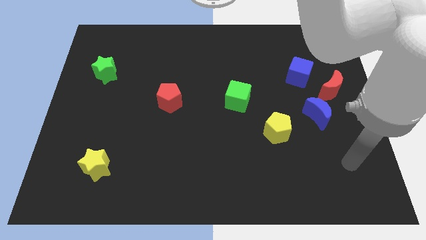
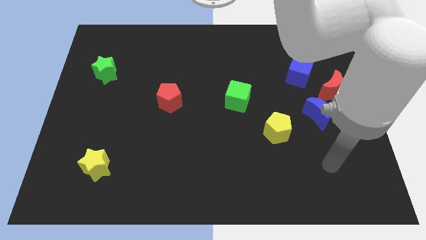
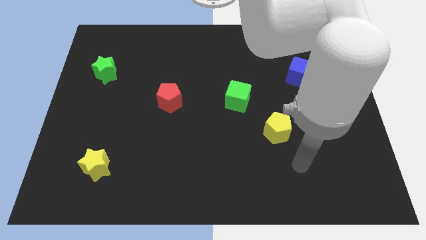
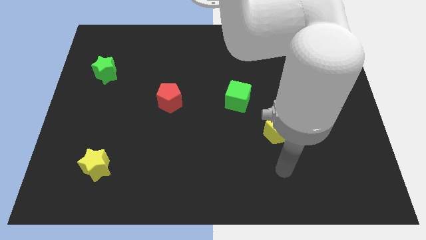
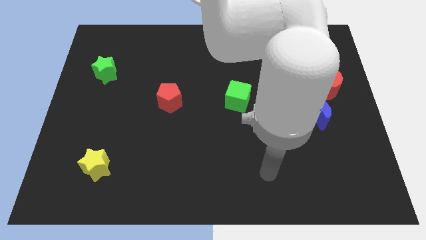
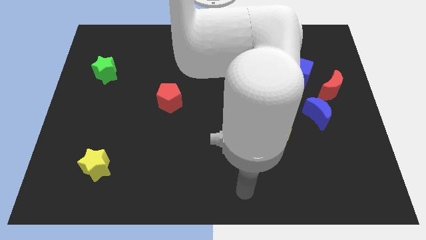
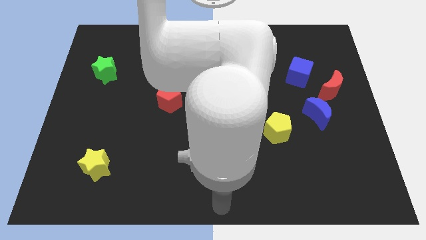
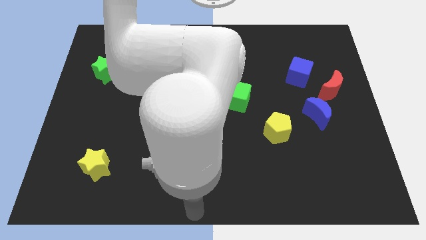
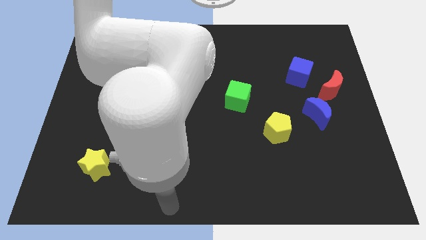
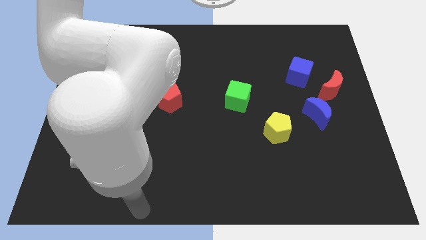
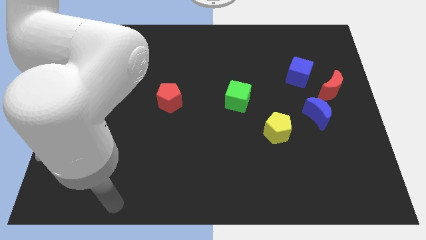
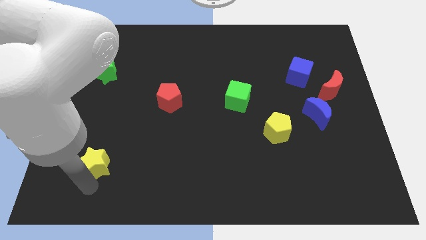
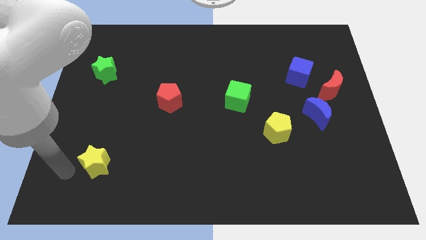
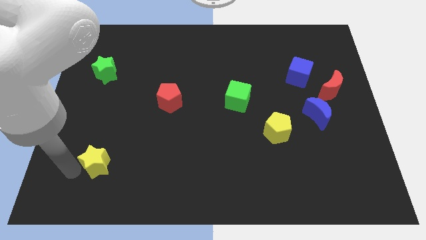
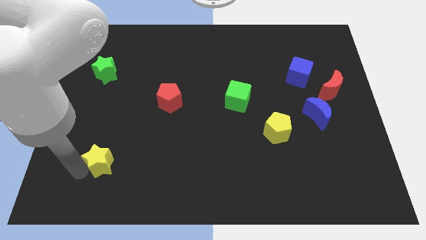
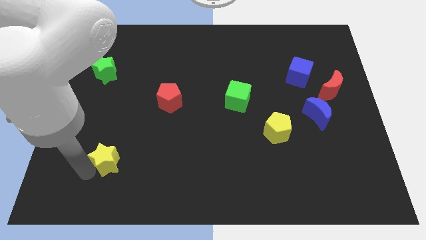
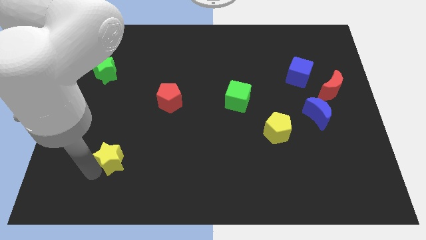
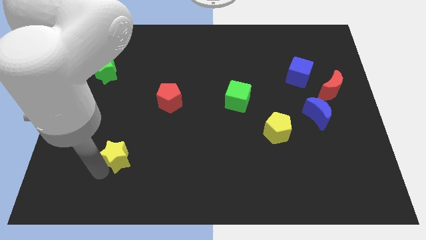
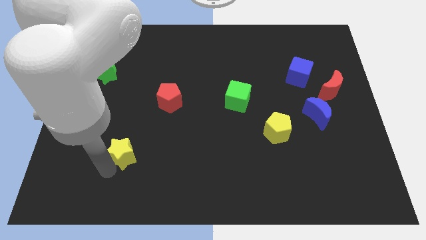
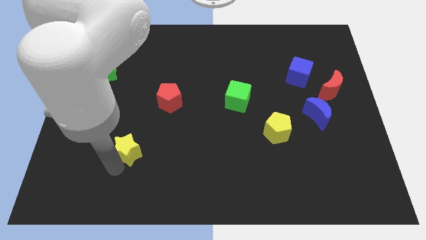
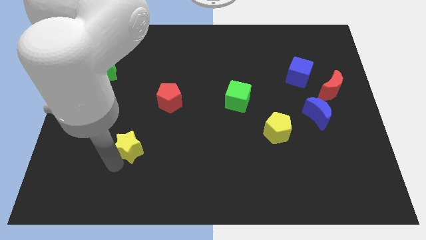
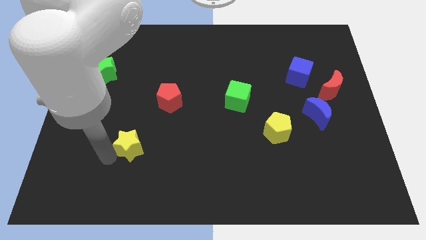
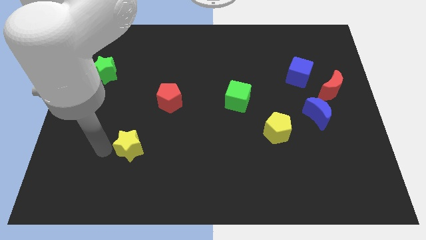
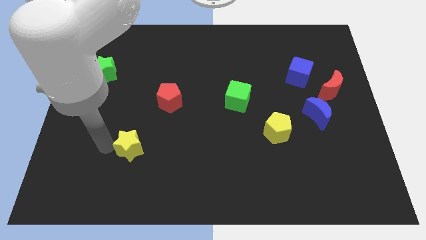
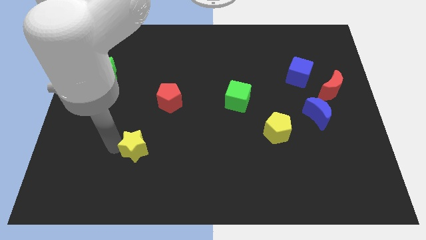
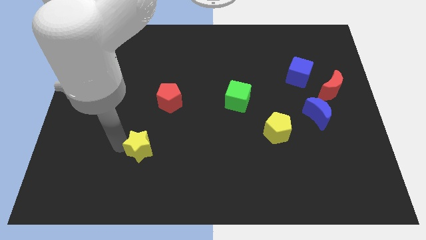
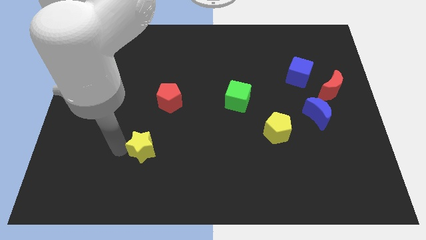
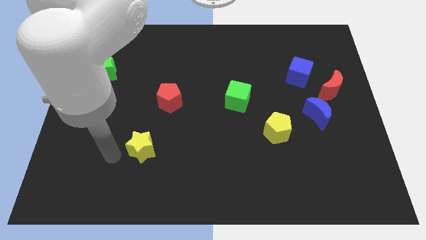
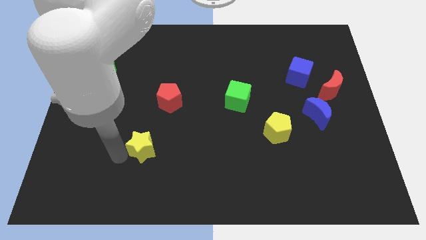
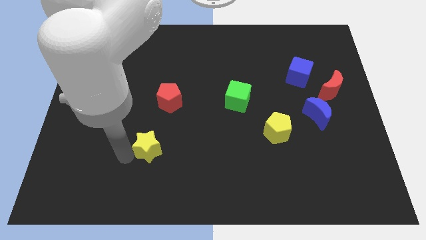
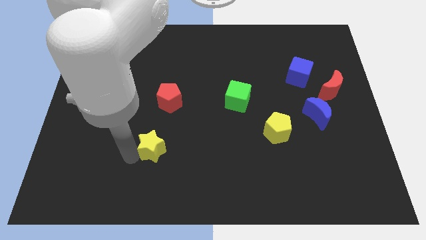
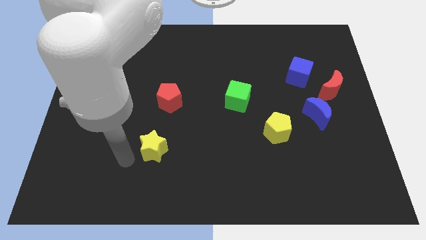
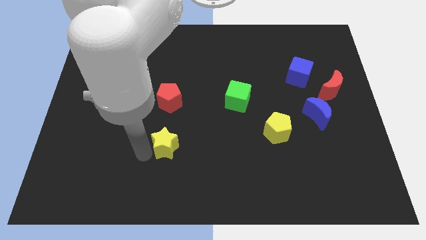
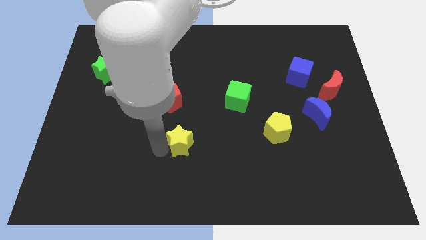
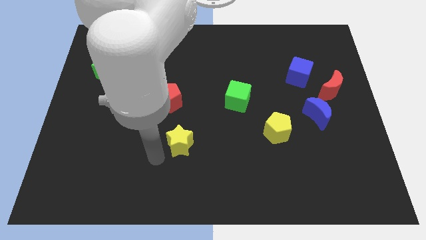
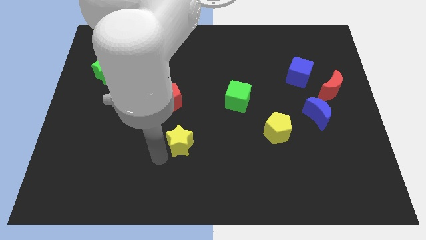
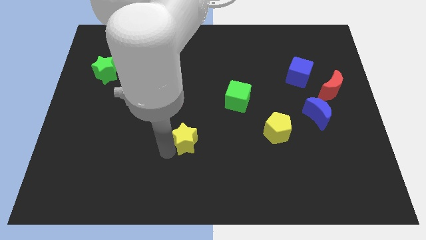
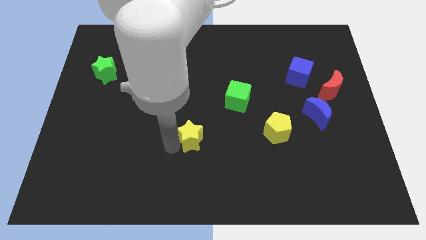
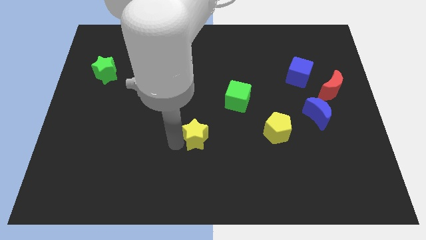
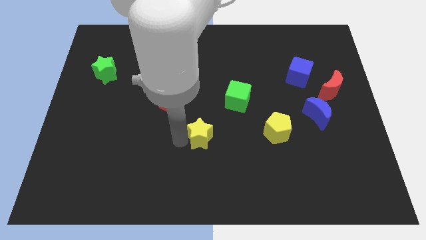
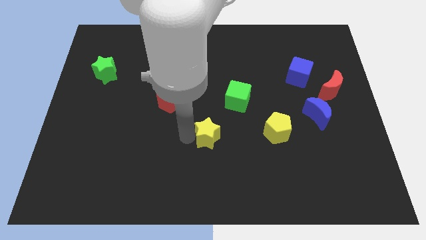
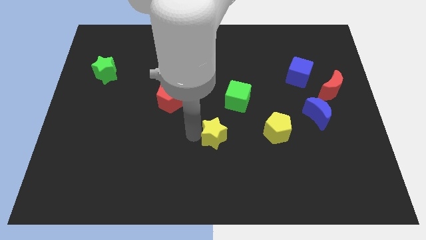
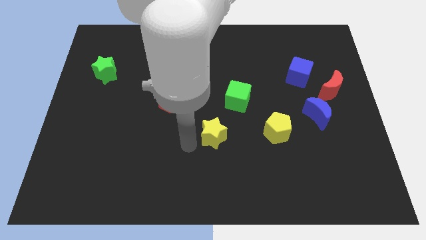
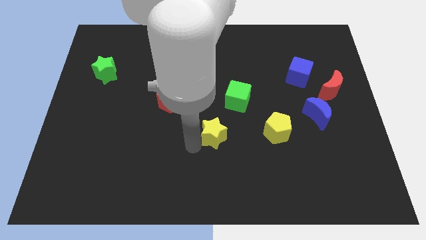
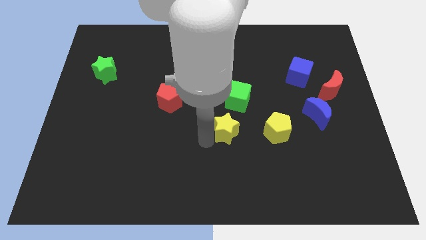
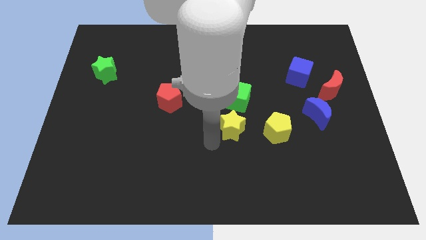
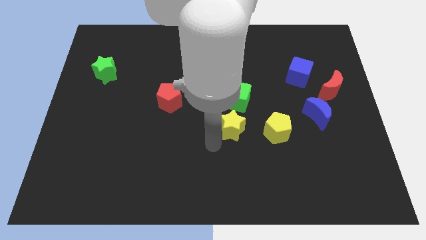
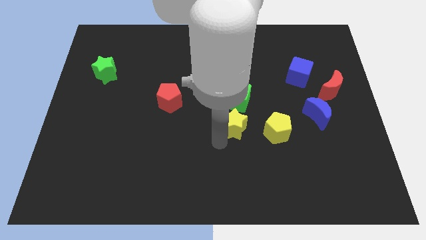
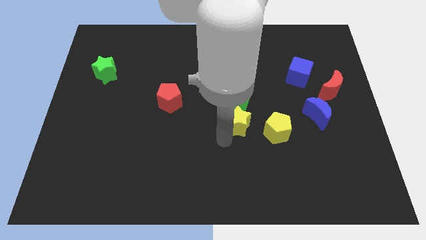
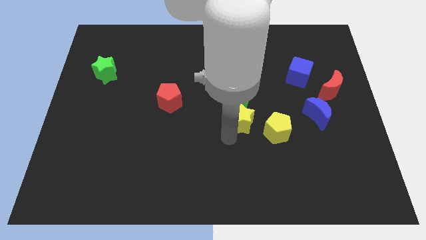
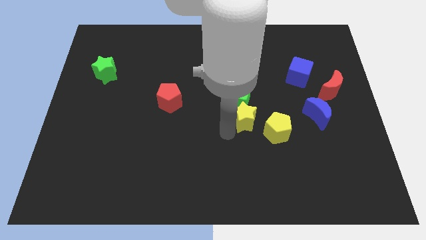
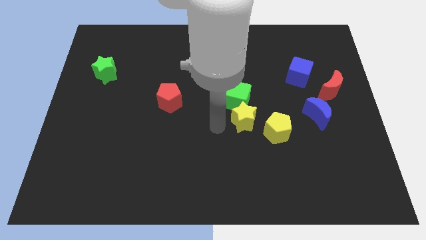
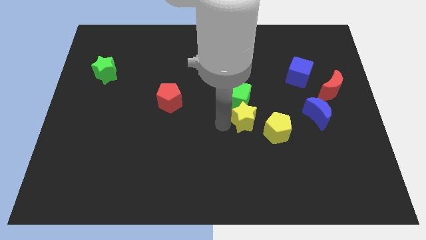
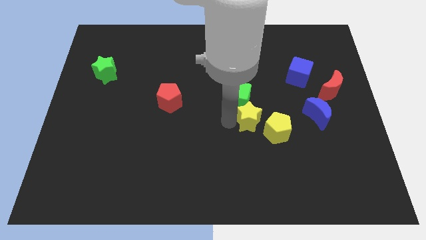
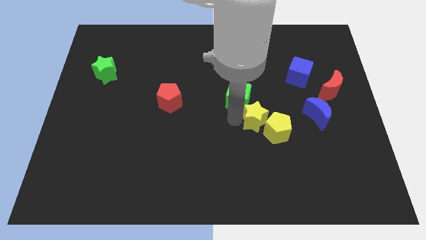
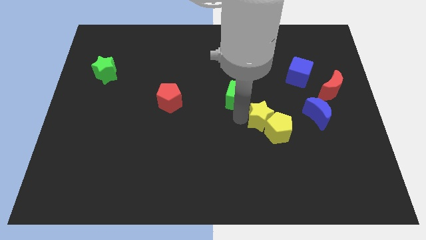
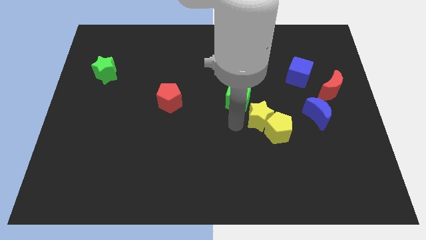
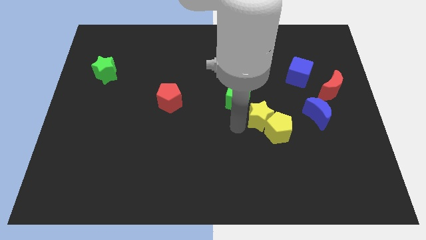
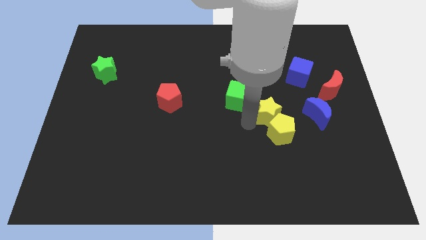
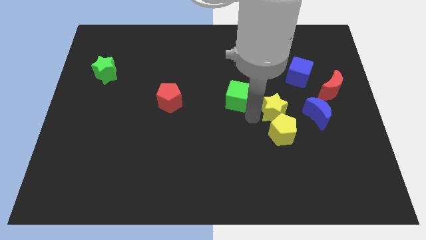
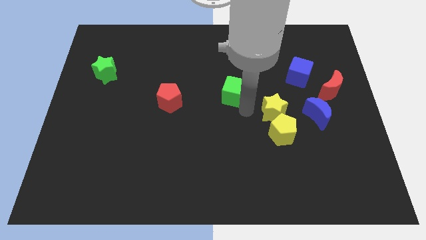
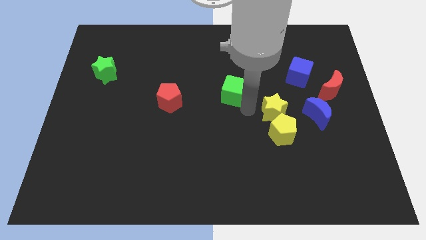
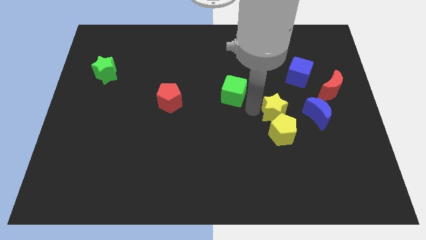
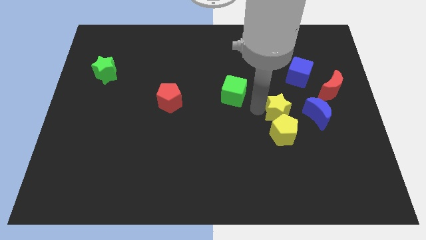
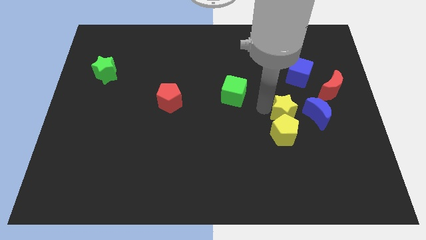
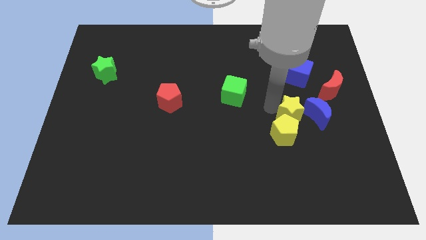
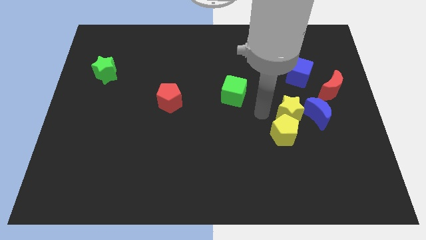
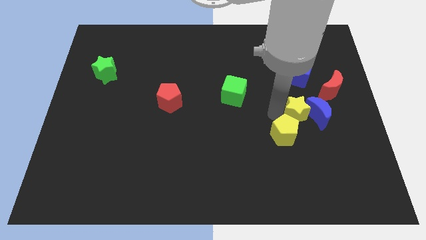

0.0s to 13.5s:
slide the yellow star towards the blue moon

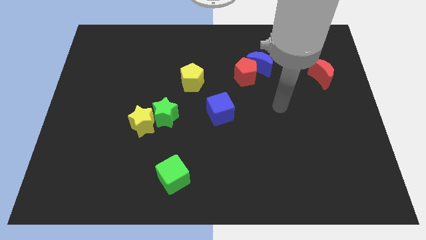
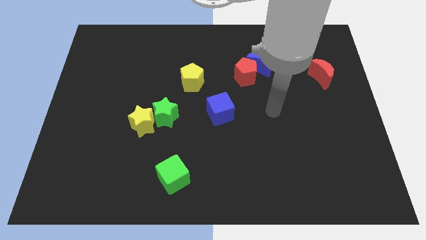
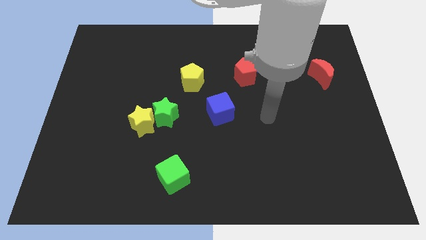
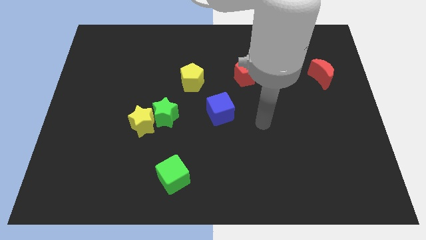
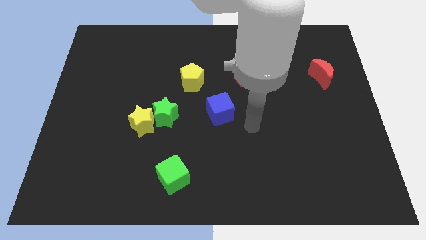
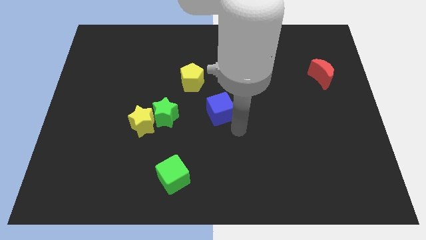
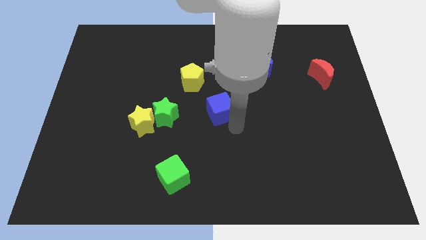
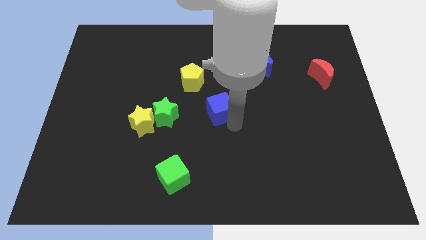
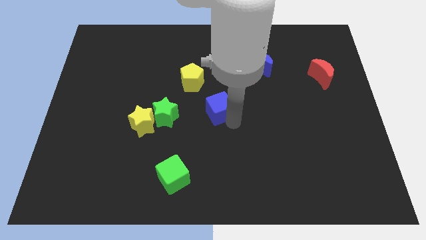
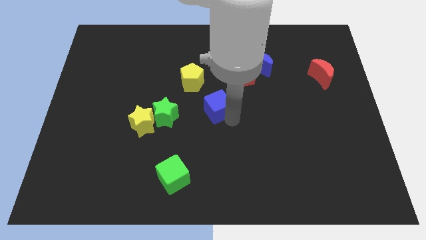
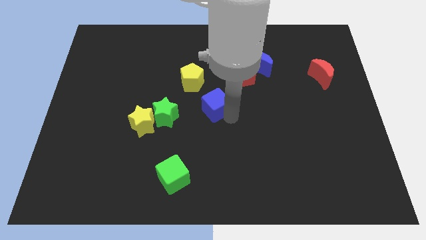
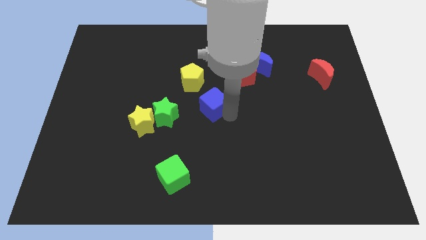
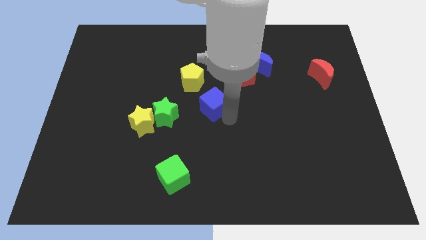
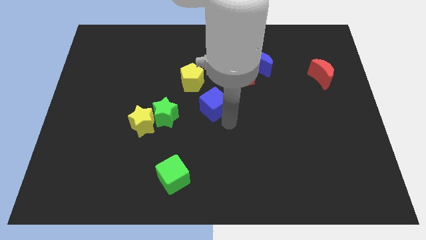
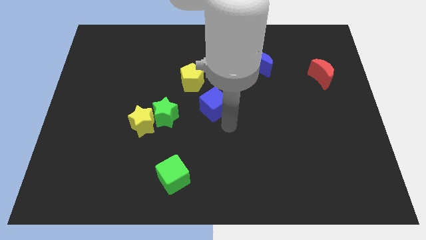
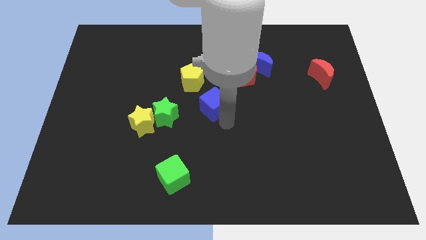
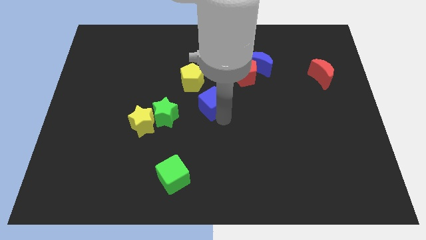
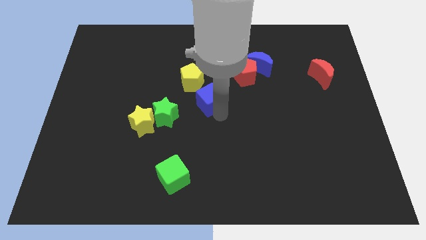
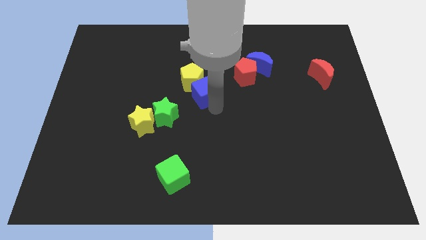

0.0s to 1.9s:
push the blue cube to the yellow pentagon
